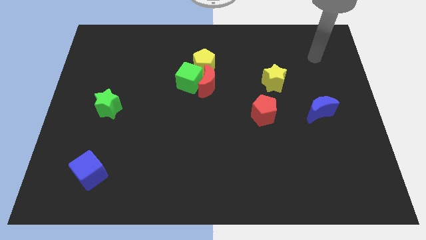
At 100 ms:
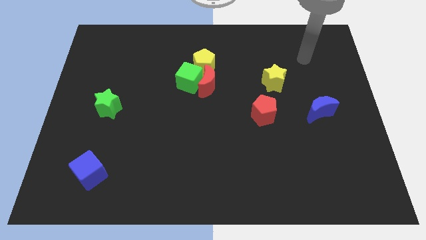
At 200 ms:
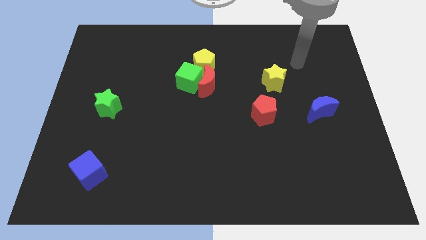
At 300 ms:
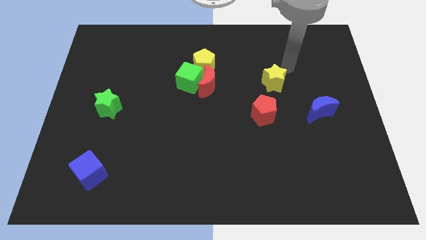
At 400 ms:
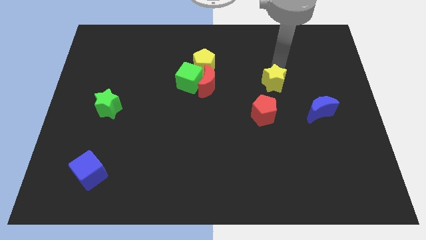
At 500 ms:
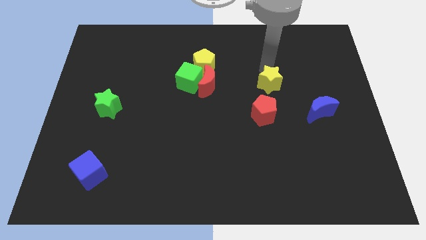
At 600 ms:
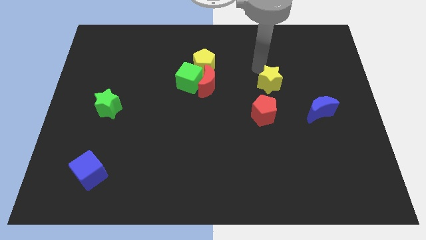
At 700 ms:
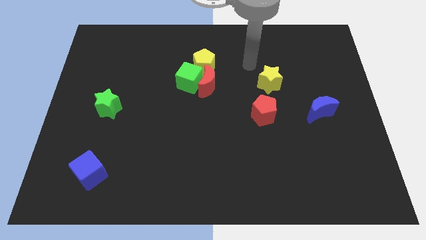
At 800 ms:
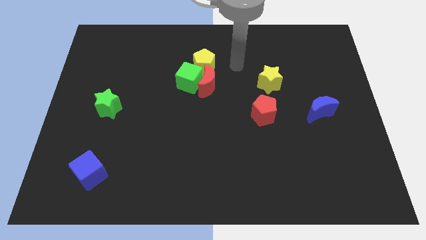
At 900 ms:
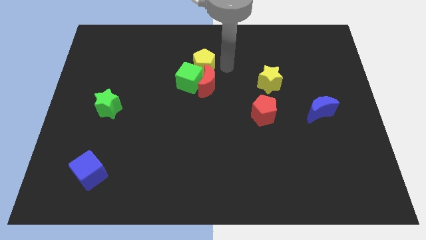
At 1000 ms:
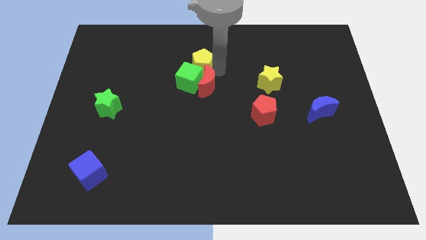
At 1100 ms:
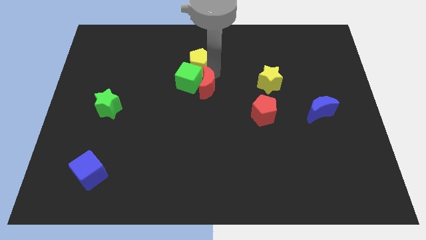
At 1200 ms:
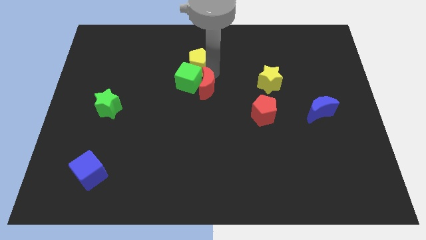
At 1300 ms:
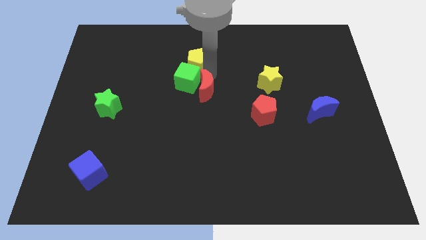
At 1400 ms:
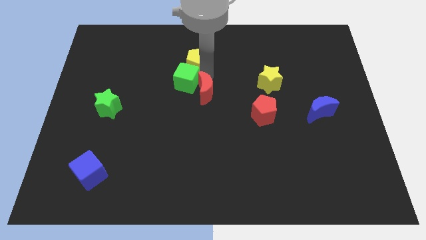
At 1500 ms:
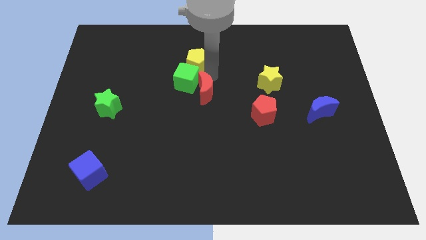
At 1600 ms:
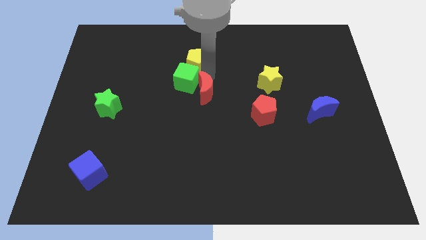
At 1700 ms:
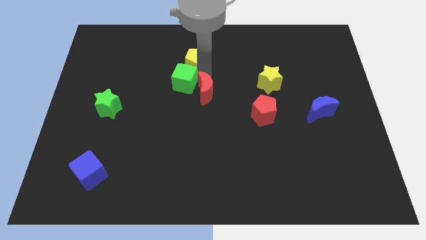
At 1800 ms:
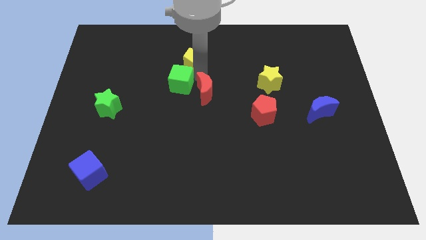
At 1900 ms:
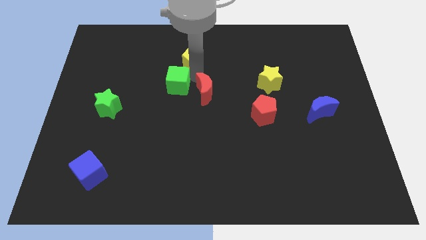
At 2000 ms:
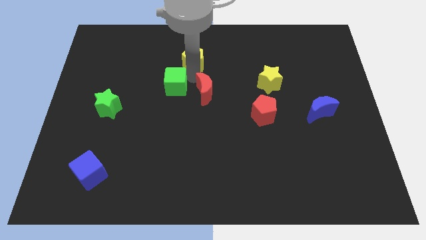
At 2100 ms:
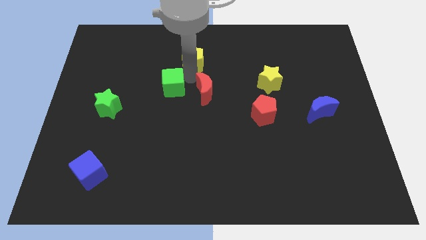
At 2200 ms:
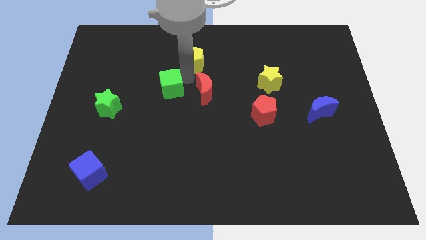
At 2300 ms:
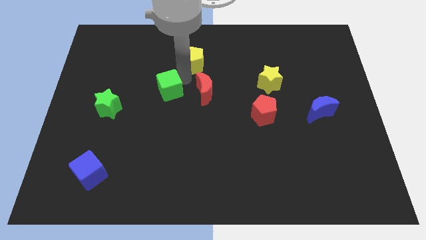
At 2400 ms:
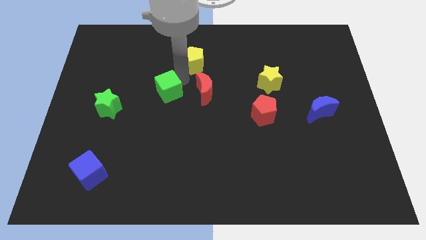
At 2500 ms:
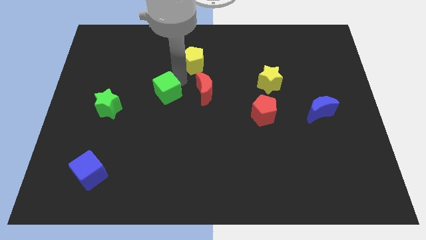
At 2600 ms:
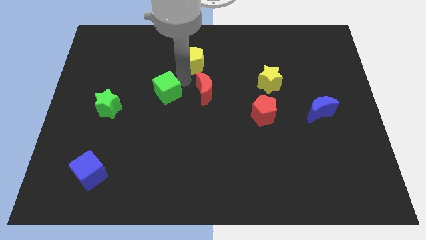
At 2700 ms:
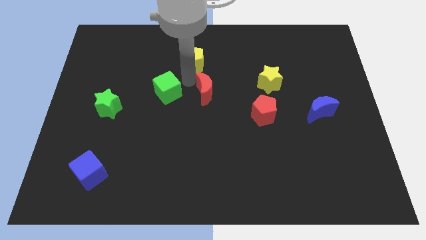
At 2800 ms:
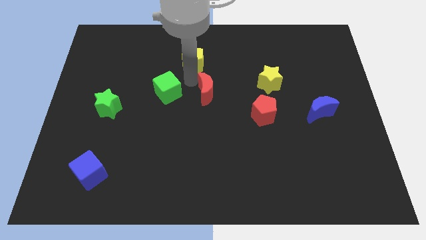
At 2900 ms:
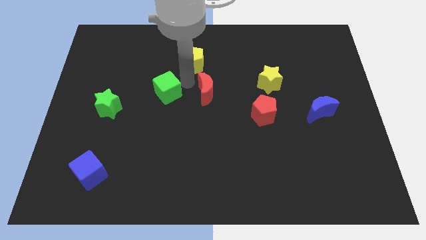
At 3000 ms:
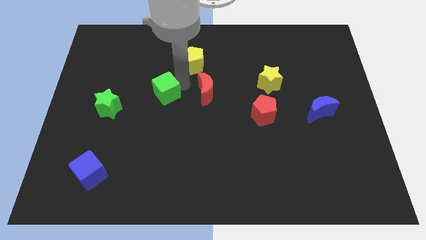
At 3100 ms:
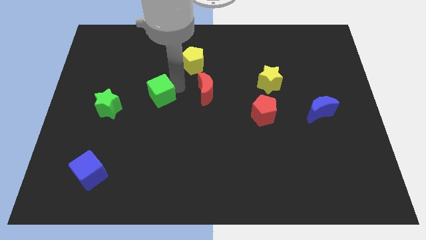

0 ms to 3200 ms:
pull the green cube apart from the red moon and yellow pentagon

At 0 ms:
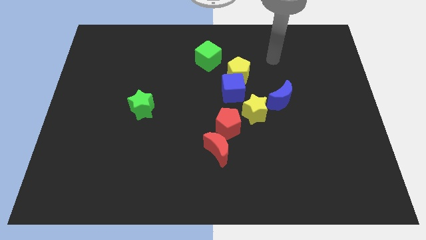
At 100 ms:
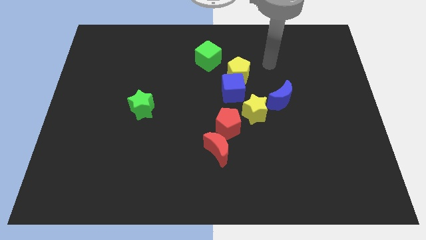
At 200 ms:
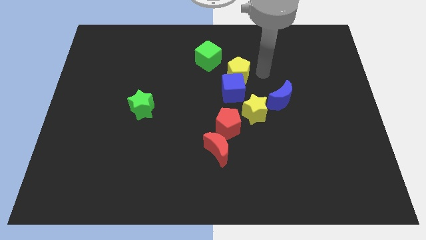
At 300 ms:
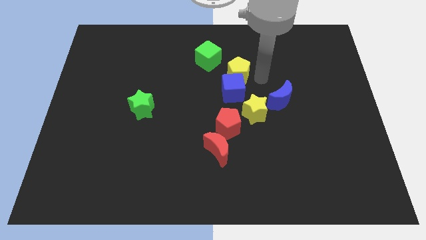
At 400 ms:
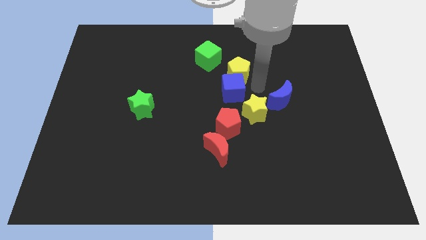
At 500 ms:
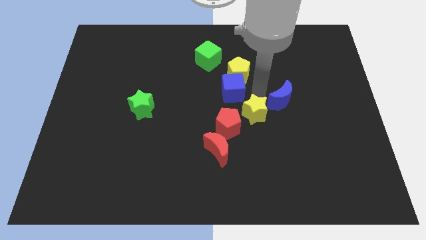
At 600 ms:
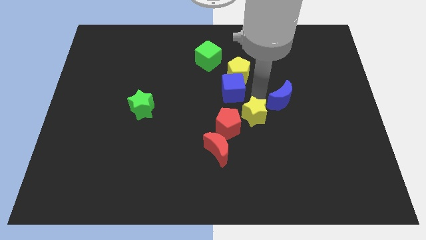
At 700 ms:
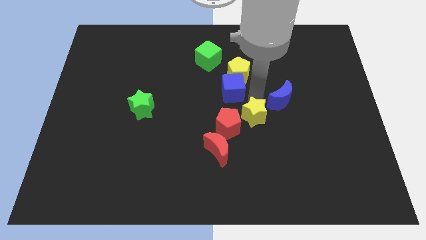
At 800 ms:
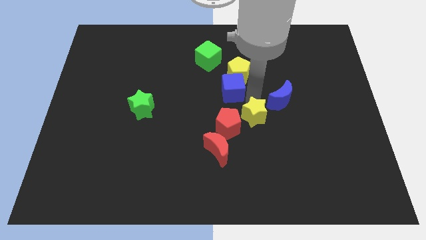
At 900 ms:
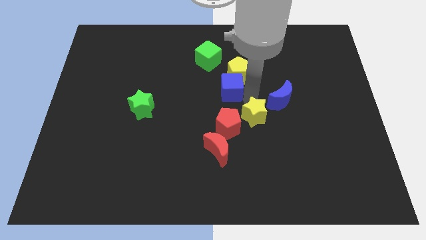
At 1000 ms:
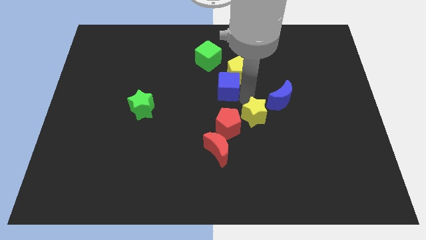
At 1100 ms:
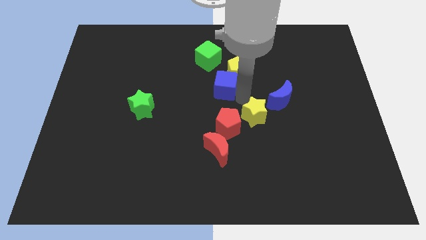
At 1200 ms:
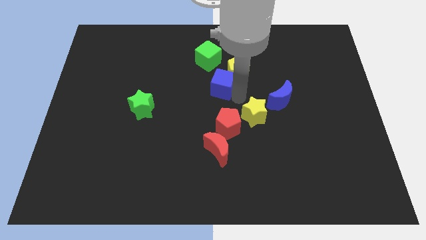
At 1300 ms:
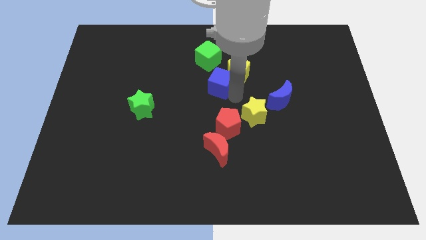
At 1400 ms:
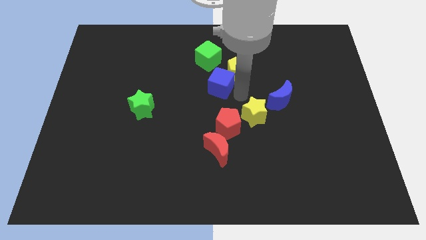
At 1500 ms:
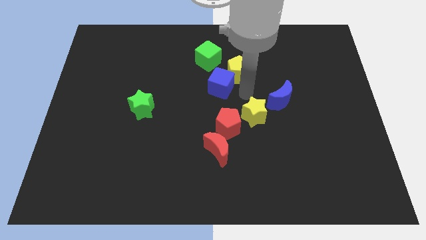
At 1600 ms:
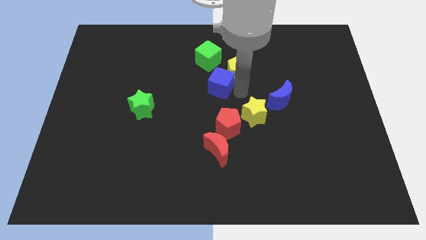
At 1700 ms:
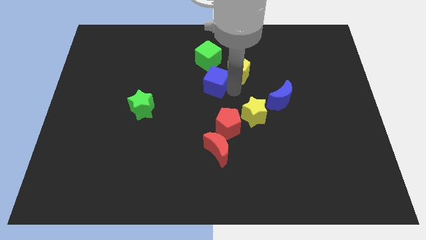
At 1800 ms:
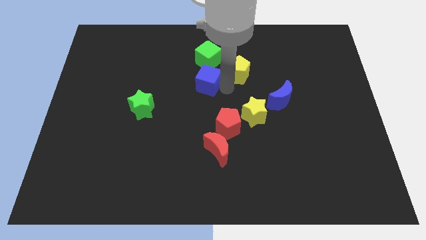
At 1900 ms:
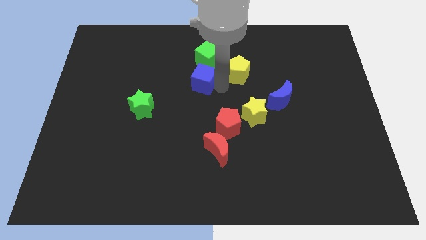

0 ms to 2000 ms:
pull the blue cube apart from the yellow pentagon and yellow star

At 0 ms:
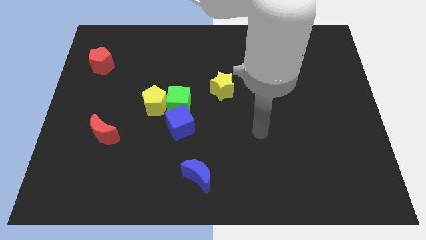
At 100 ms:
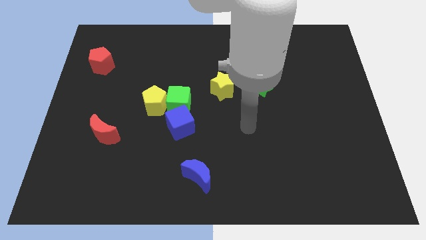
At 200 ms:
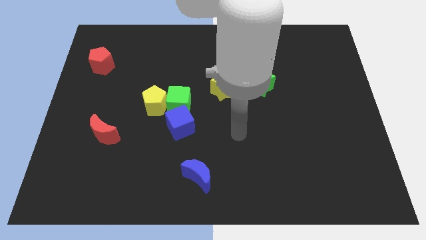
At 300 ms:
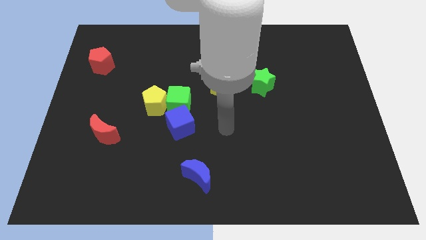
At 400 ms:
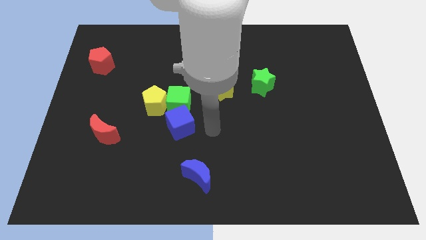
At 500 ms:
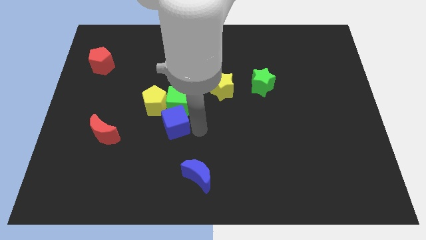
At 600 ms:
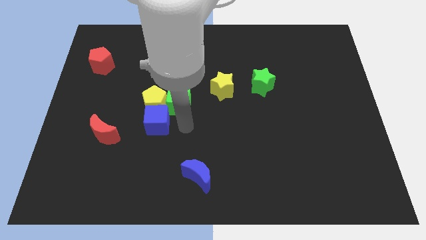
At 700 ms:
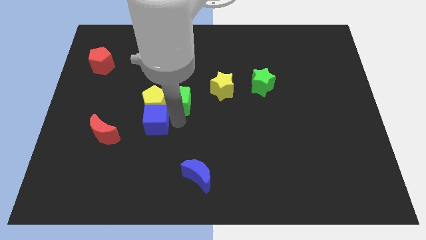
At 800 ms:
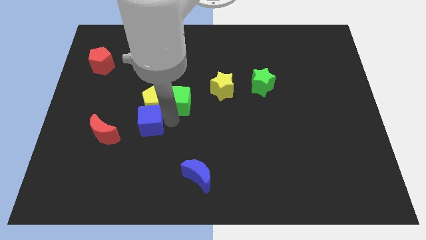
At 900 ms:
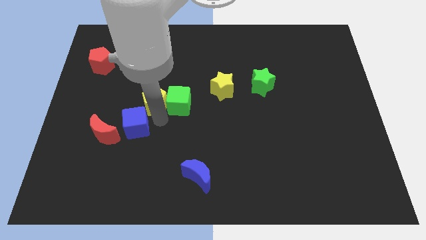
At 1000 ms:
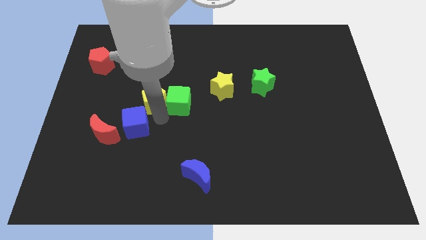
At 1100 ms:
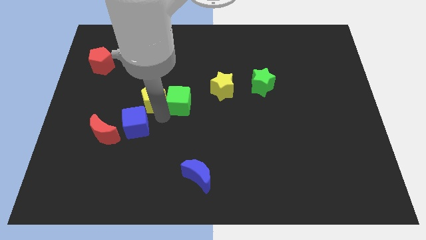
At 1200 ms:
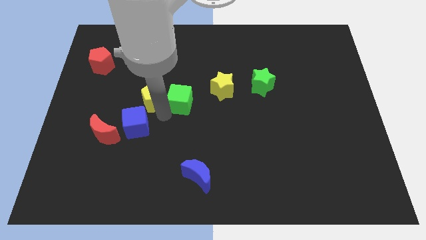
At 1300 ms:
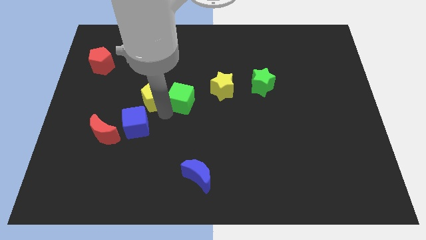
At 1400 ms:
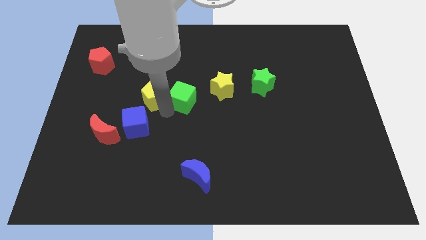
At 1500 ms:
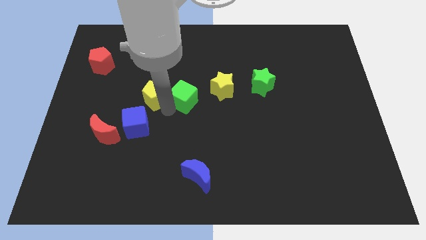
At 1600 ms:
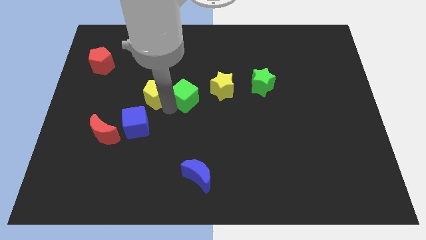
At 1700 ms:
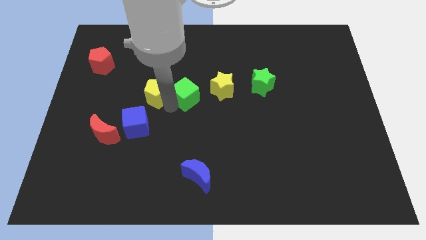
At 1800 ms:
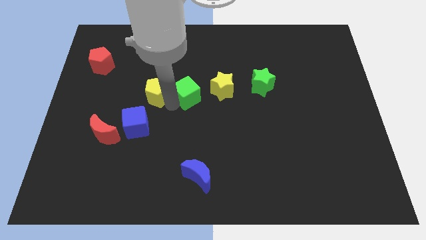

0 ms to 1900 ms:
pull the green cube apart from the yellow pentagon and blue cube

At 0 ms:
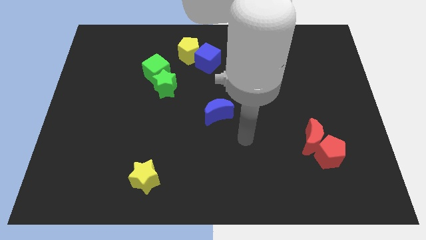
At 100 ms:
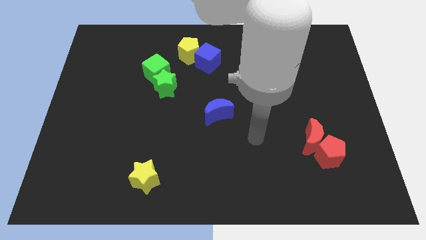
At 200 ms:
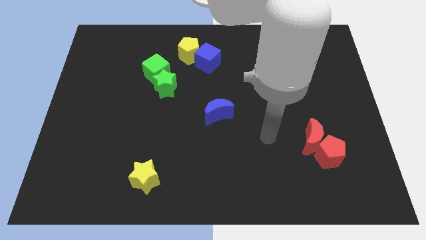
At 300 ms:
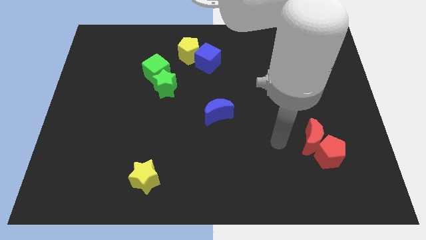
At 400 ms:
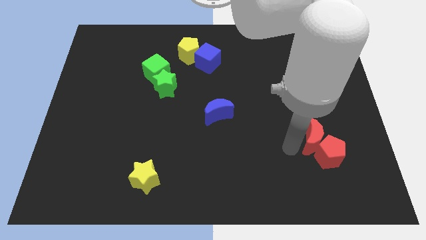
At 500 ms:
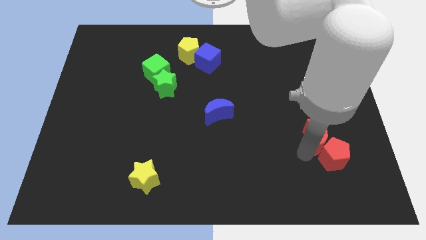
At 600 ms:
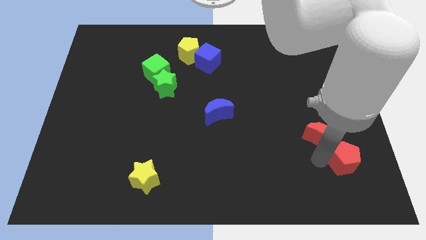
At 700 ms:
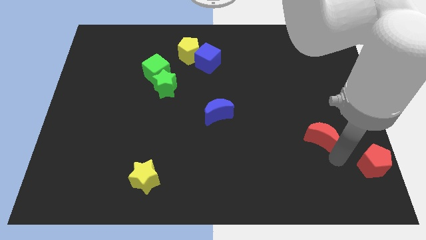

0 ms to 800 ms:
pull the red moon apart from the red pentagon

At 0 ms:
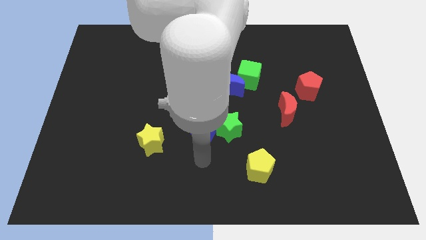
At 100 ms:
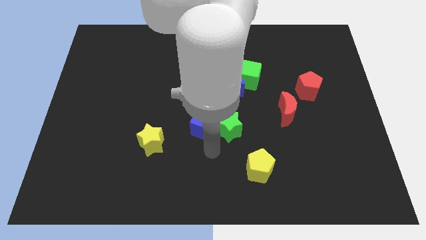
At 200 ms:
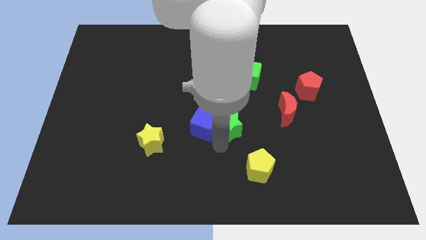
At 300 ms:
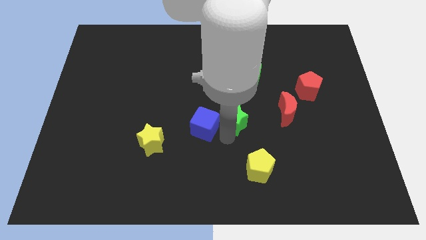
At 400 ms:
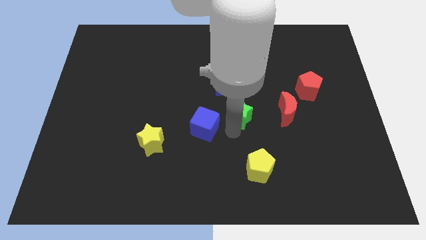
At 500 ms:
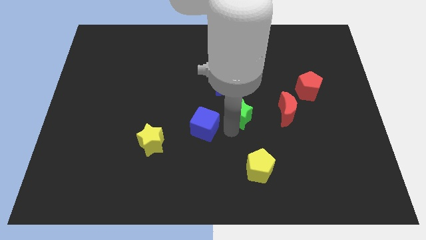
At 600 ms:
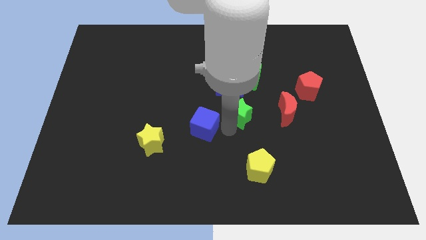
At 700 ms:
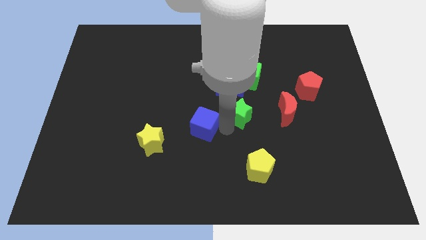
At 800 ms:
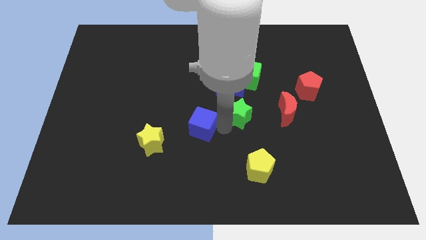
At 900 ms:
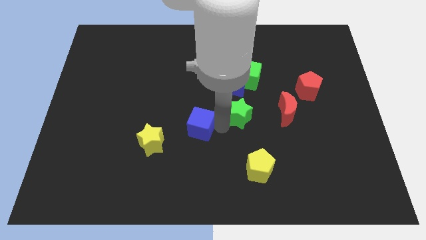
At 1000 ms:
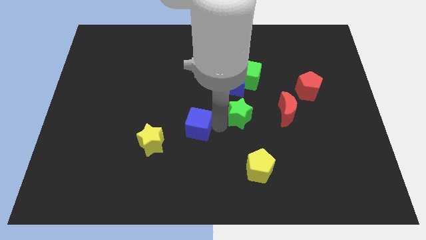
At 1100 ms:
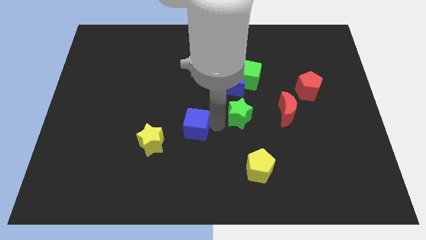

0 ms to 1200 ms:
separate the blue cube from the green star
